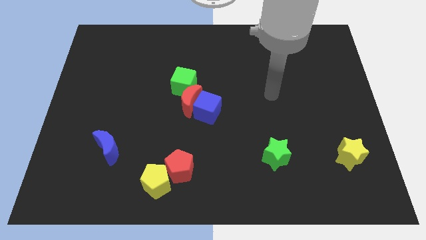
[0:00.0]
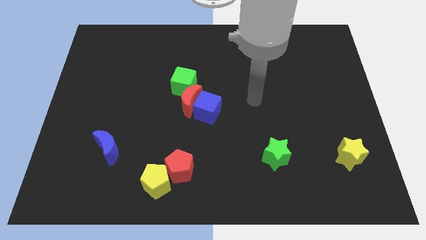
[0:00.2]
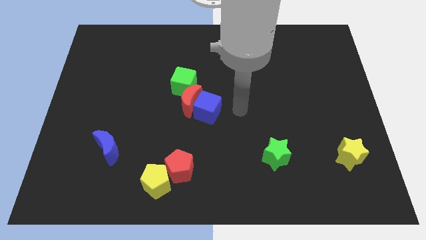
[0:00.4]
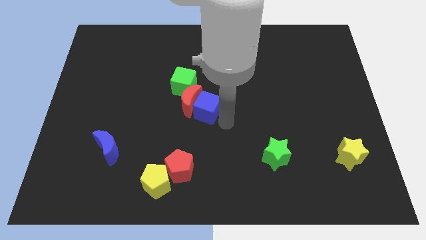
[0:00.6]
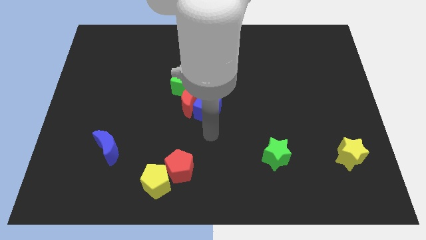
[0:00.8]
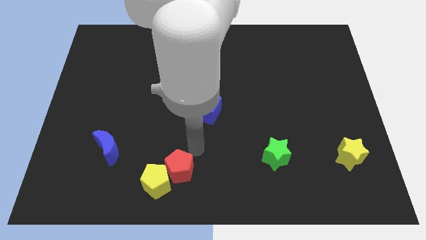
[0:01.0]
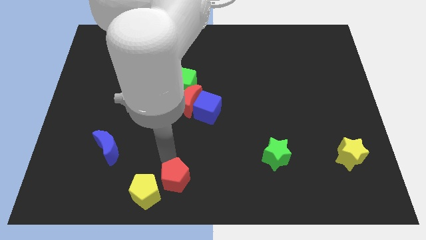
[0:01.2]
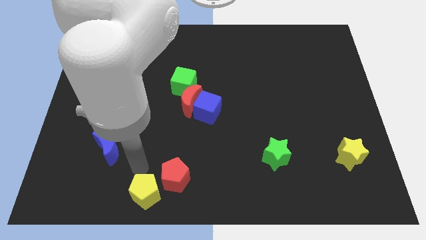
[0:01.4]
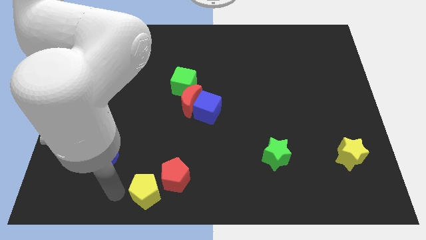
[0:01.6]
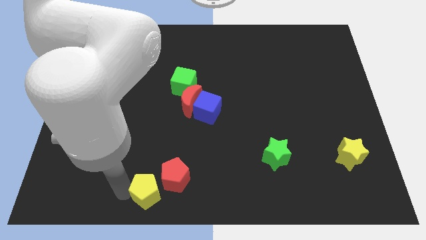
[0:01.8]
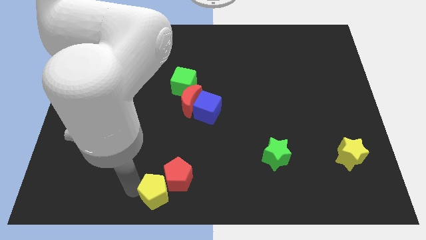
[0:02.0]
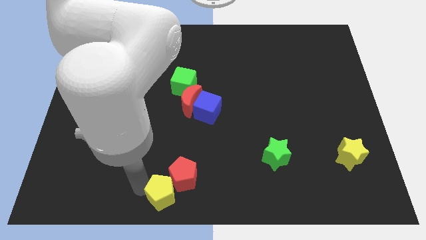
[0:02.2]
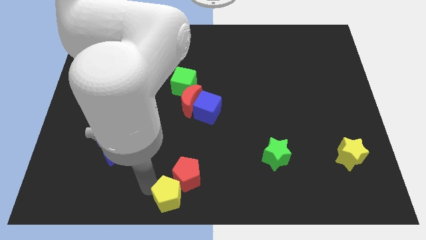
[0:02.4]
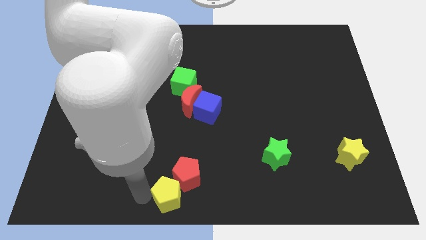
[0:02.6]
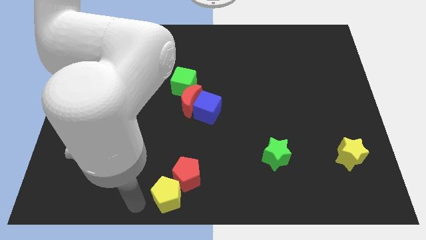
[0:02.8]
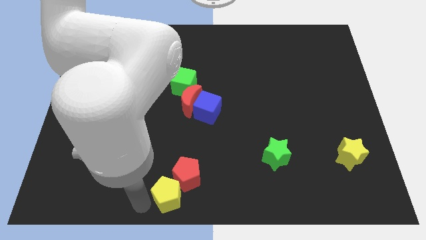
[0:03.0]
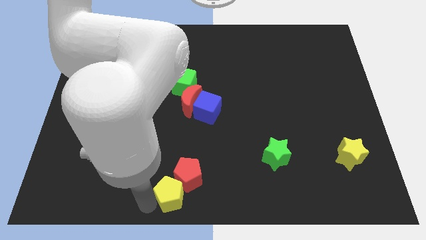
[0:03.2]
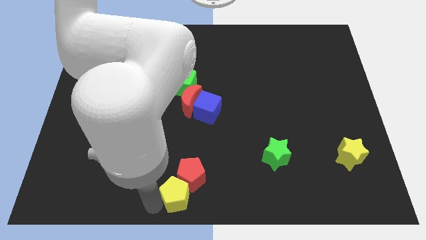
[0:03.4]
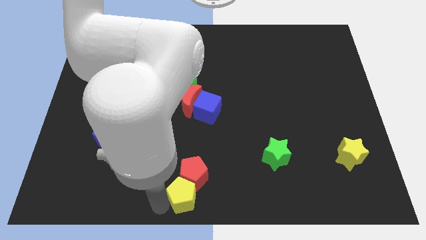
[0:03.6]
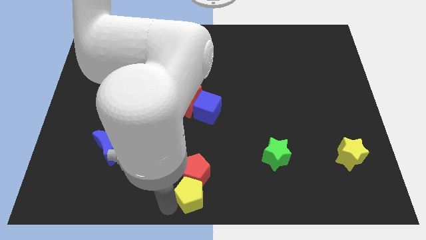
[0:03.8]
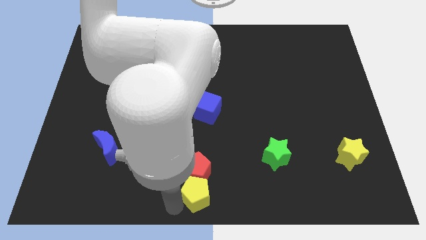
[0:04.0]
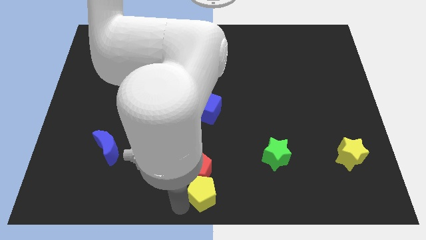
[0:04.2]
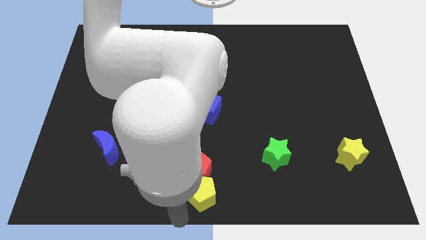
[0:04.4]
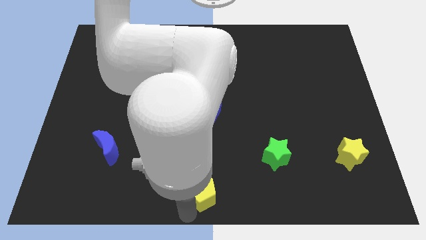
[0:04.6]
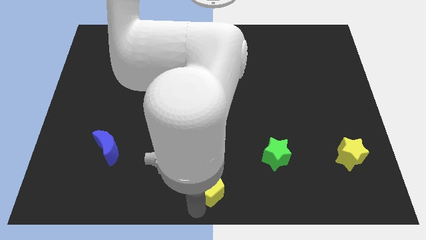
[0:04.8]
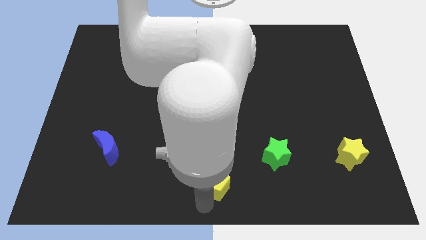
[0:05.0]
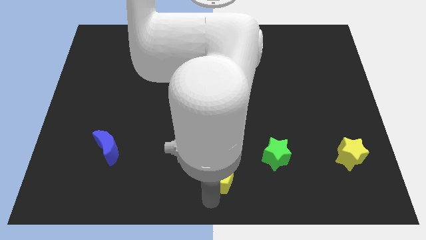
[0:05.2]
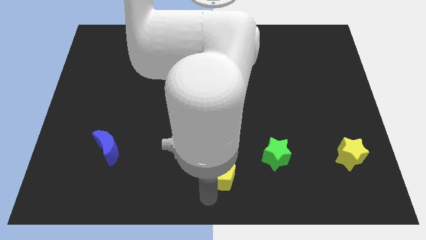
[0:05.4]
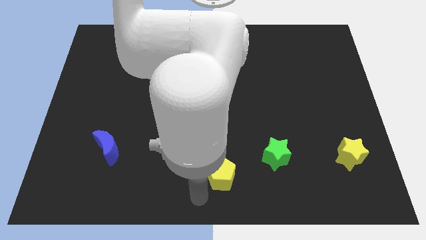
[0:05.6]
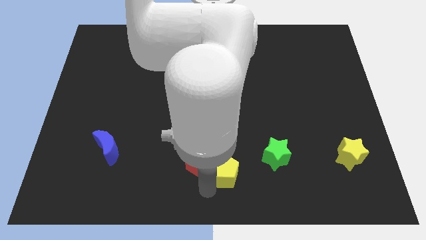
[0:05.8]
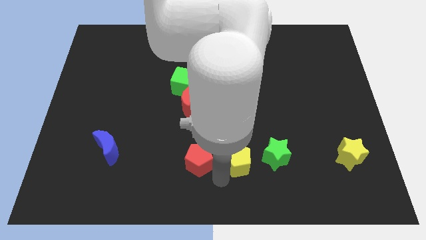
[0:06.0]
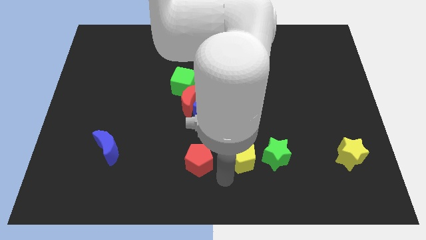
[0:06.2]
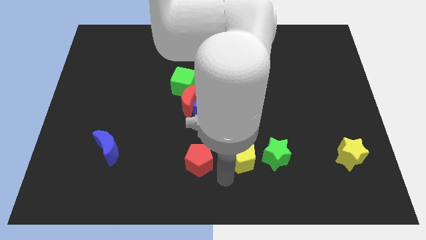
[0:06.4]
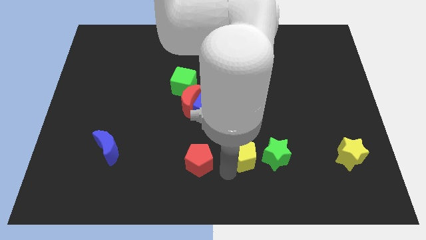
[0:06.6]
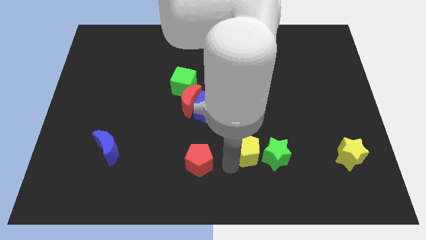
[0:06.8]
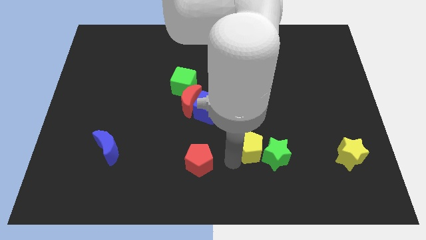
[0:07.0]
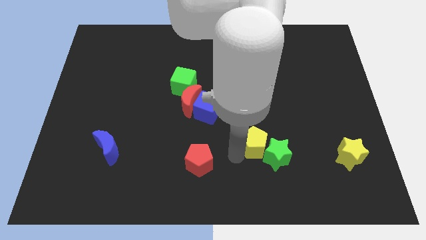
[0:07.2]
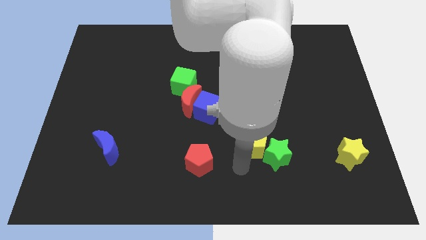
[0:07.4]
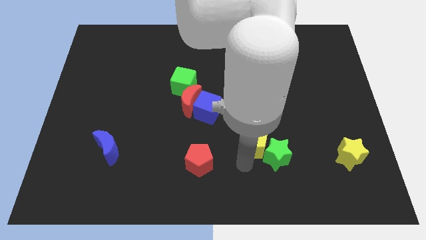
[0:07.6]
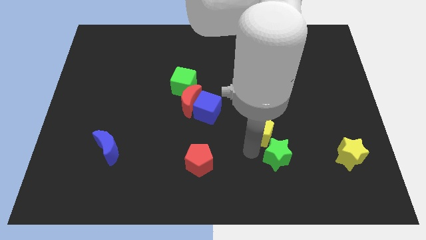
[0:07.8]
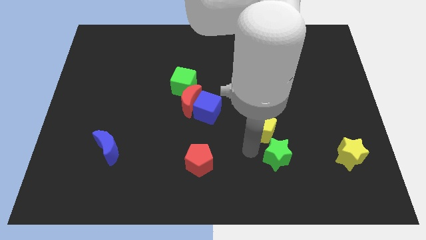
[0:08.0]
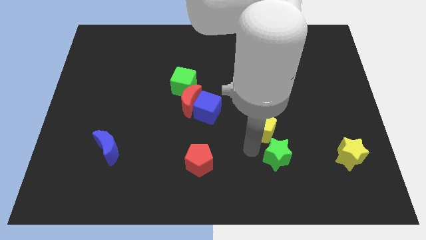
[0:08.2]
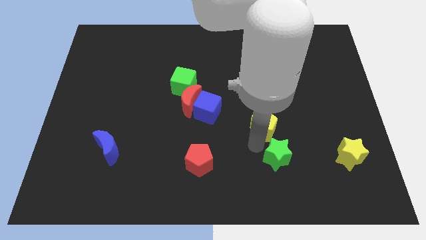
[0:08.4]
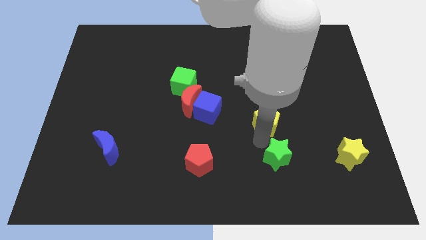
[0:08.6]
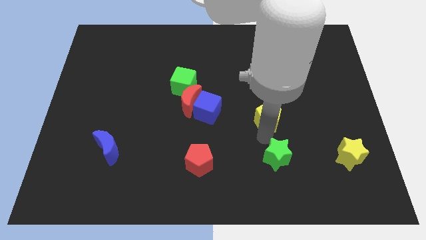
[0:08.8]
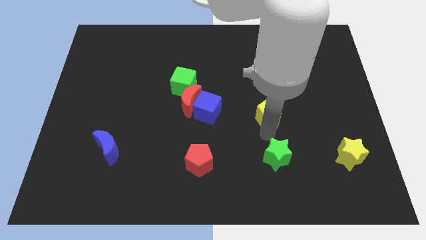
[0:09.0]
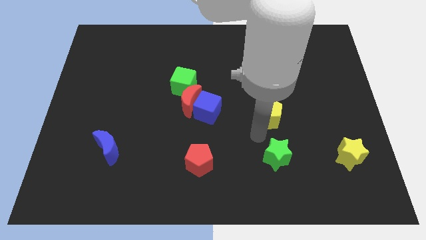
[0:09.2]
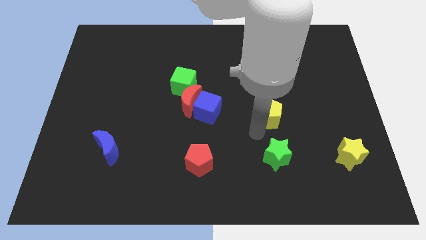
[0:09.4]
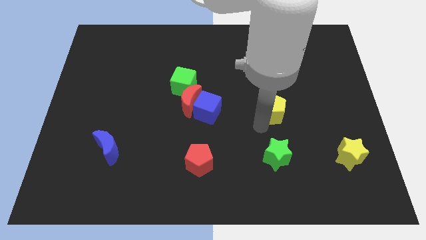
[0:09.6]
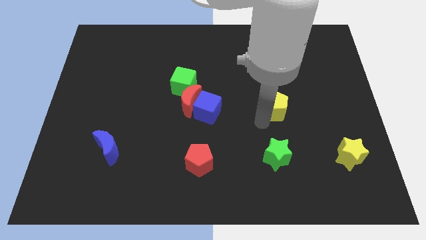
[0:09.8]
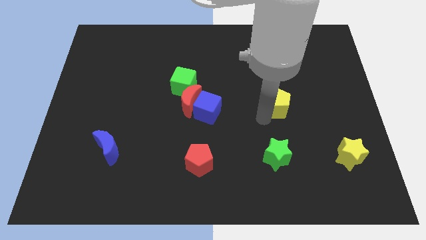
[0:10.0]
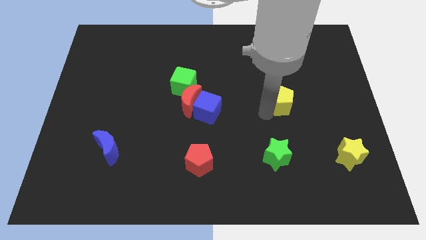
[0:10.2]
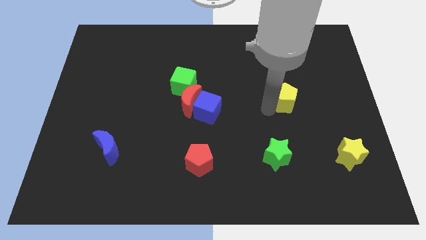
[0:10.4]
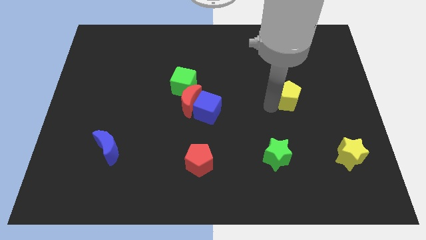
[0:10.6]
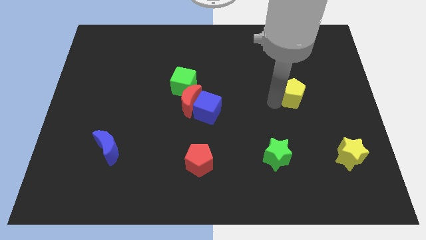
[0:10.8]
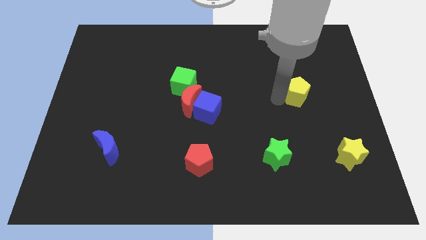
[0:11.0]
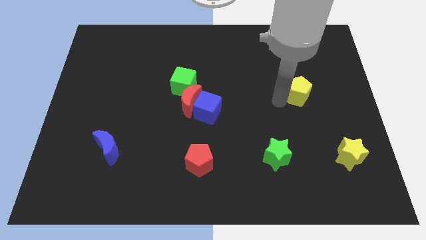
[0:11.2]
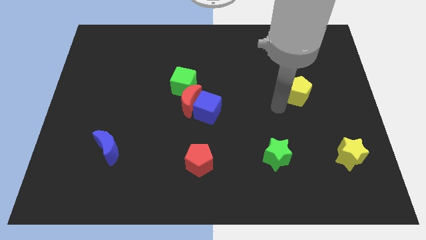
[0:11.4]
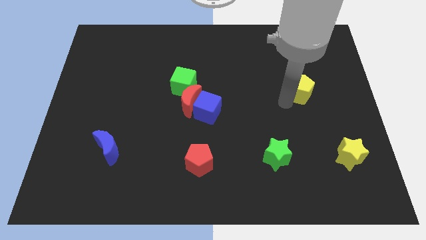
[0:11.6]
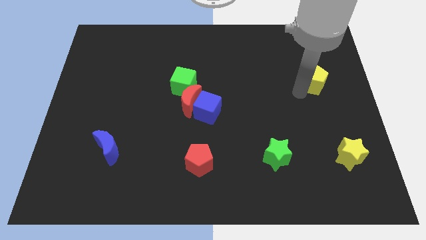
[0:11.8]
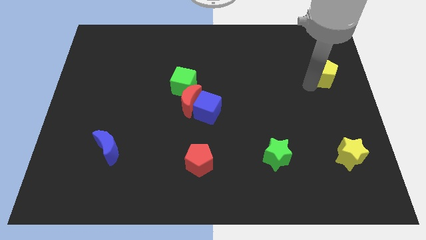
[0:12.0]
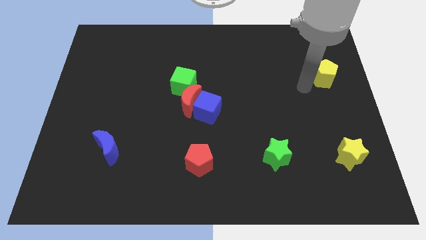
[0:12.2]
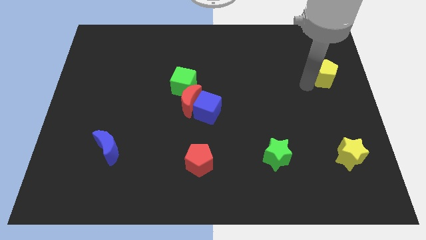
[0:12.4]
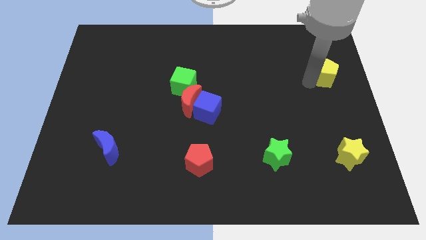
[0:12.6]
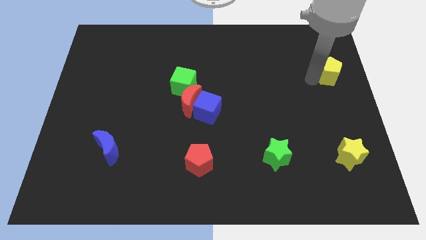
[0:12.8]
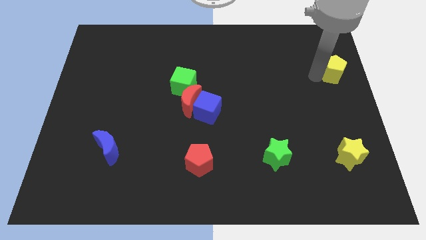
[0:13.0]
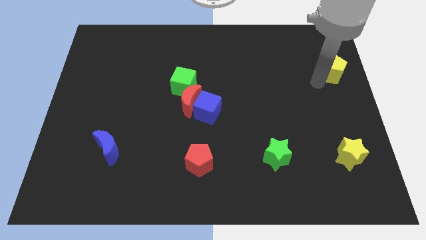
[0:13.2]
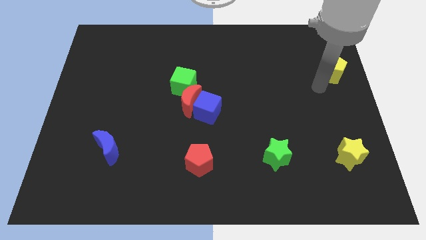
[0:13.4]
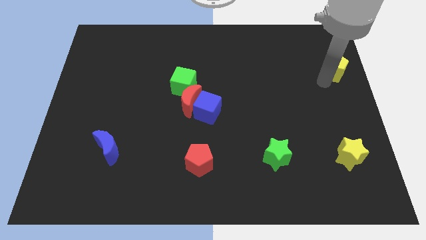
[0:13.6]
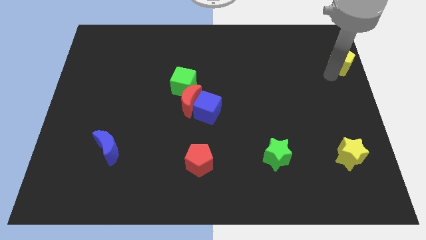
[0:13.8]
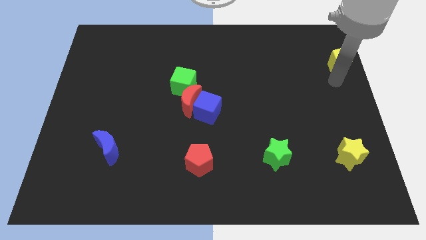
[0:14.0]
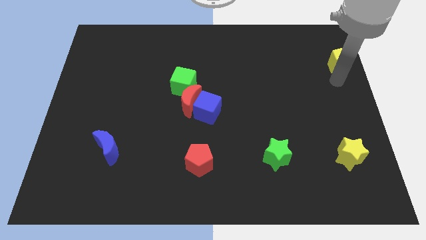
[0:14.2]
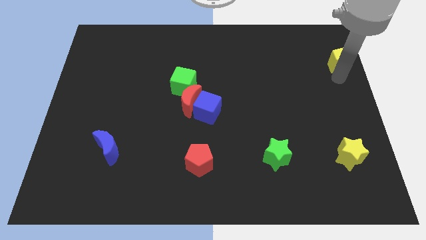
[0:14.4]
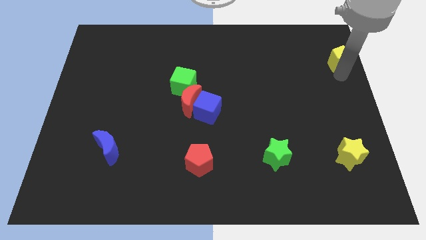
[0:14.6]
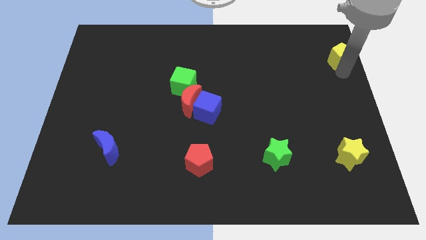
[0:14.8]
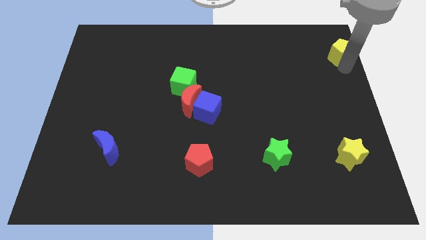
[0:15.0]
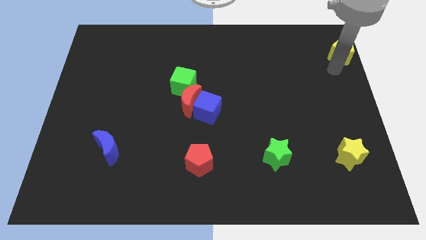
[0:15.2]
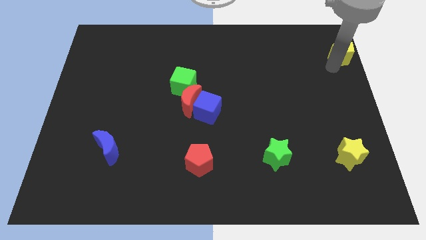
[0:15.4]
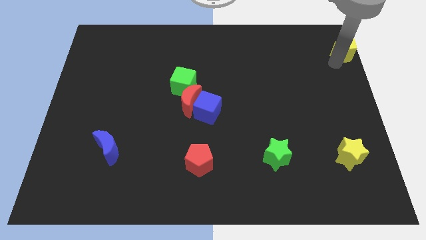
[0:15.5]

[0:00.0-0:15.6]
slide the yellow pentagon to the top right
